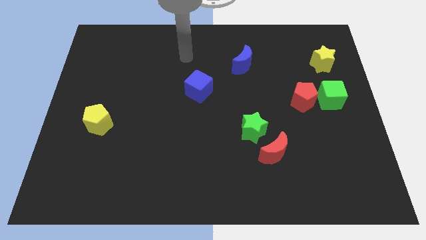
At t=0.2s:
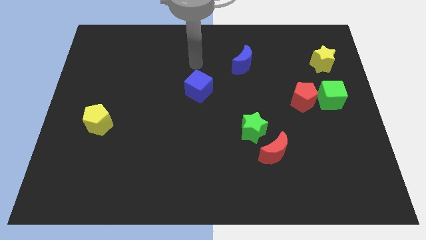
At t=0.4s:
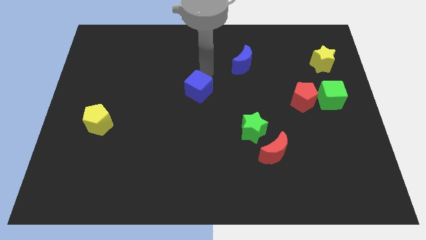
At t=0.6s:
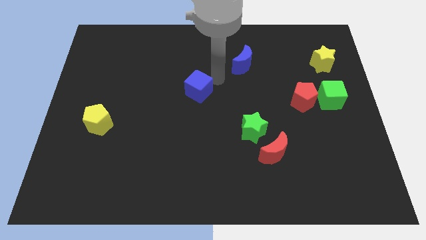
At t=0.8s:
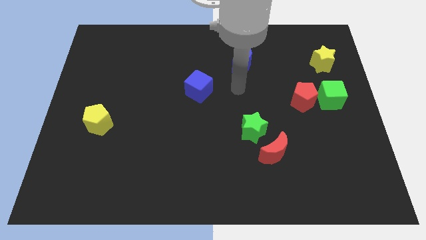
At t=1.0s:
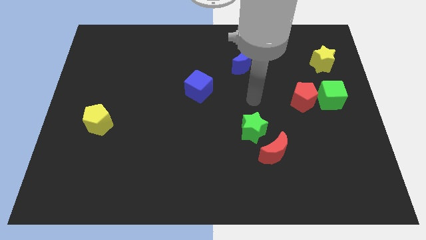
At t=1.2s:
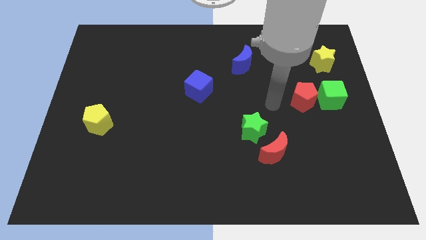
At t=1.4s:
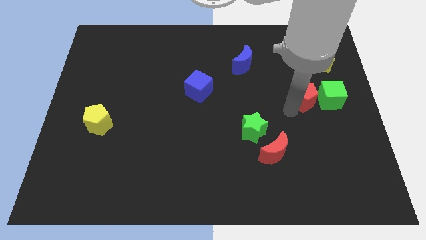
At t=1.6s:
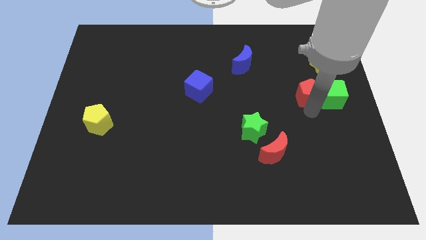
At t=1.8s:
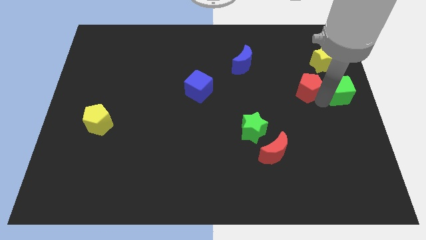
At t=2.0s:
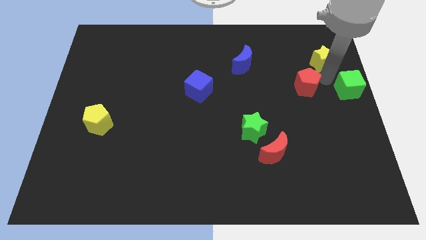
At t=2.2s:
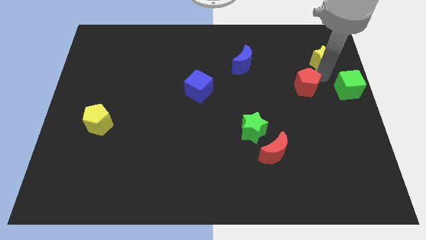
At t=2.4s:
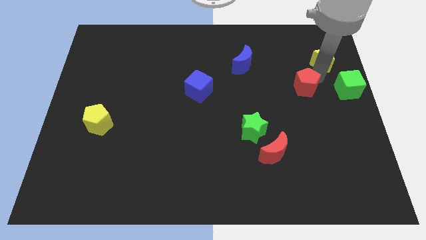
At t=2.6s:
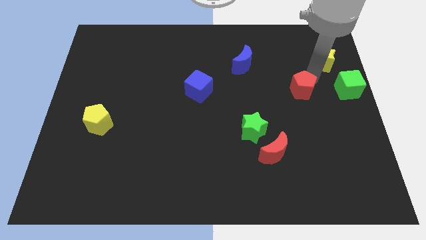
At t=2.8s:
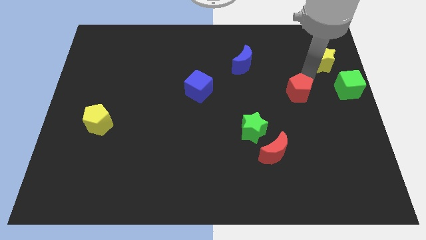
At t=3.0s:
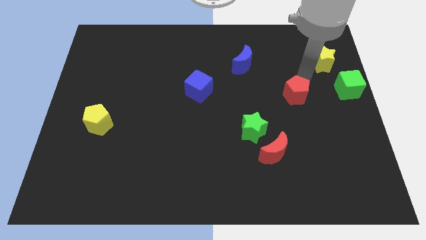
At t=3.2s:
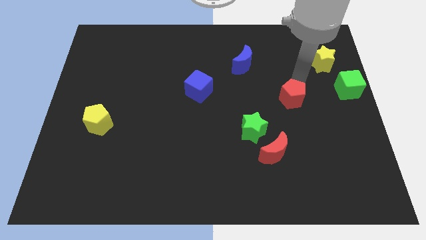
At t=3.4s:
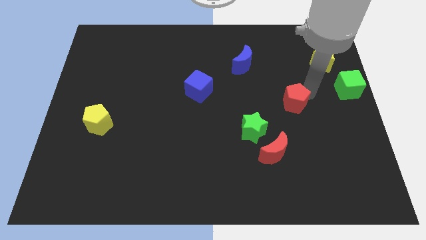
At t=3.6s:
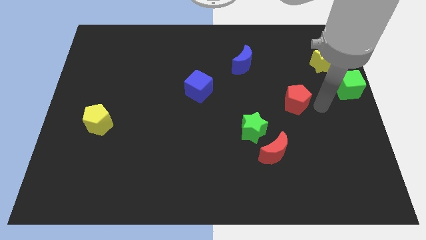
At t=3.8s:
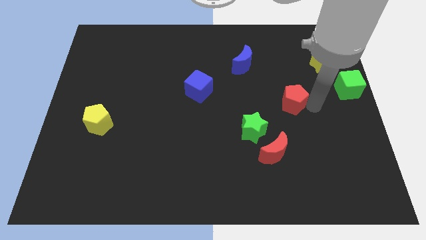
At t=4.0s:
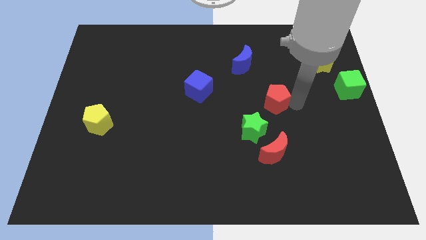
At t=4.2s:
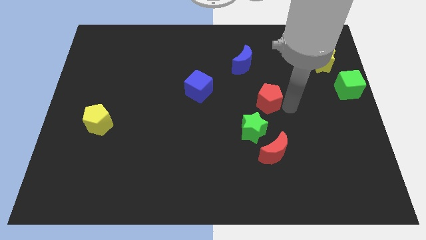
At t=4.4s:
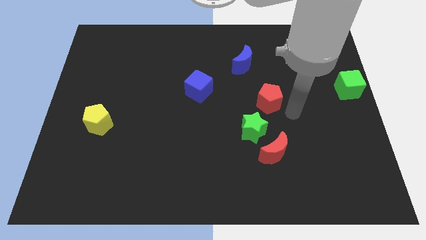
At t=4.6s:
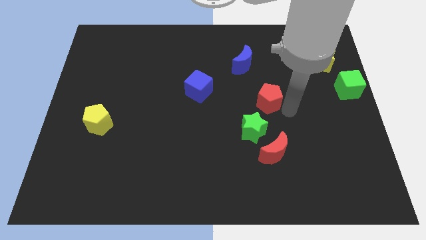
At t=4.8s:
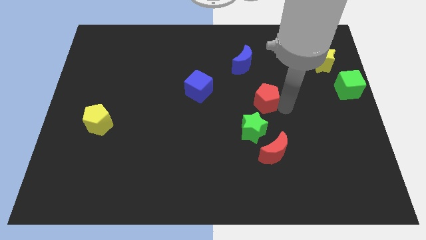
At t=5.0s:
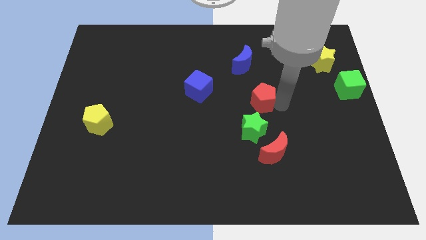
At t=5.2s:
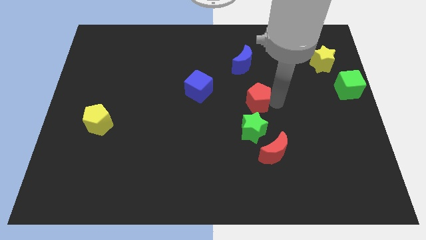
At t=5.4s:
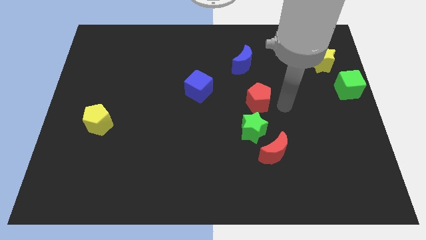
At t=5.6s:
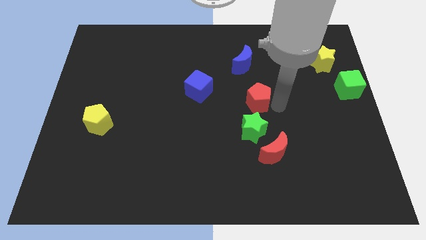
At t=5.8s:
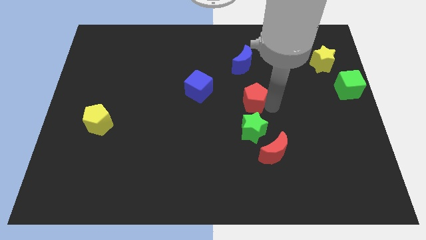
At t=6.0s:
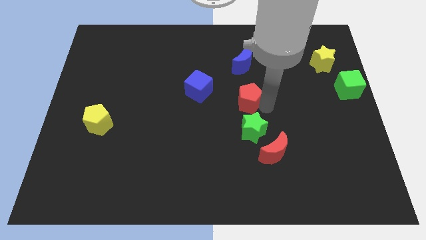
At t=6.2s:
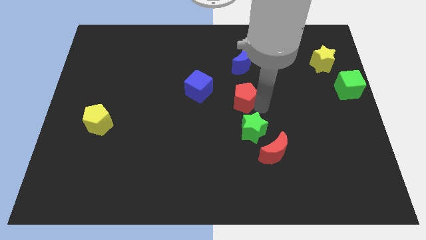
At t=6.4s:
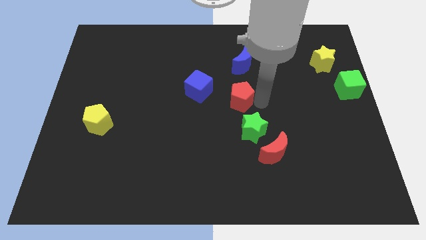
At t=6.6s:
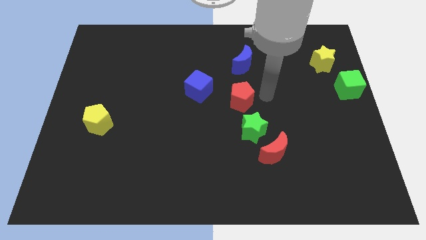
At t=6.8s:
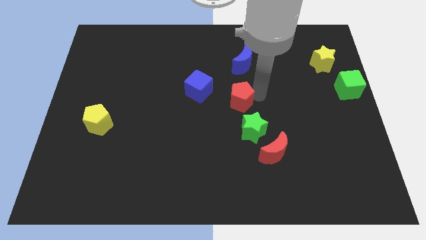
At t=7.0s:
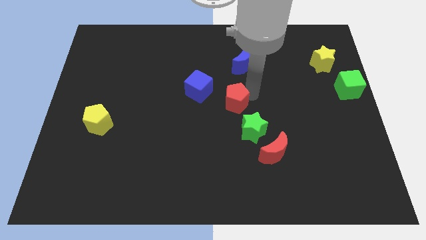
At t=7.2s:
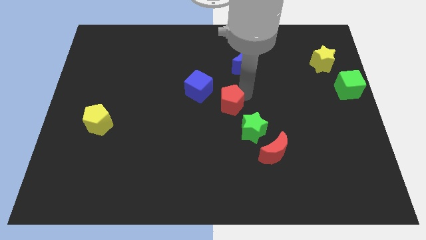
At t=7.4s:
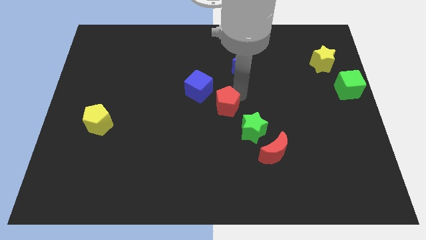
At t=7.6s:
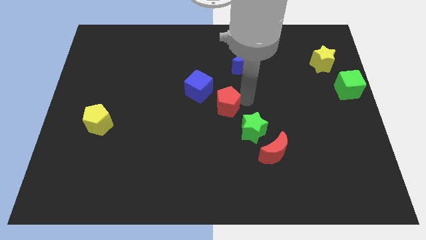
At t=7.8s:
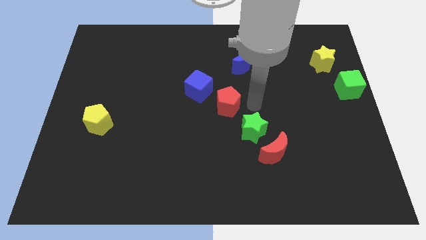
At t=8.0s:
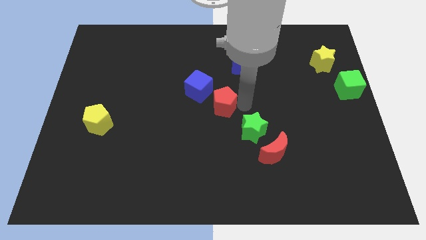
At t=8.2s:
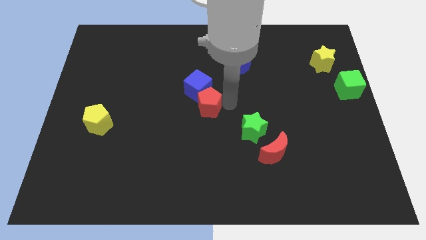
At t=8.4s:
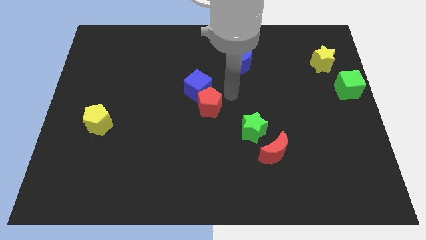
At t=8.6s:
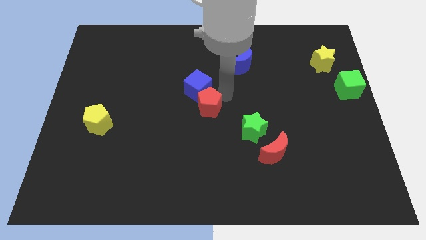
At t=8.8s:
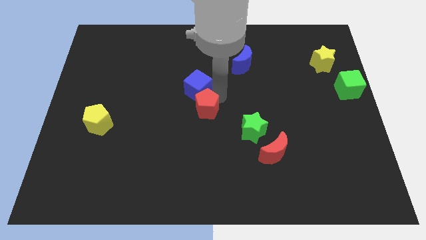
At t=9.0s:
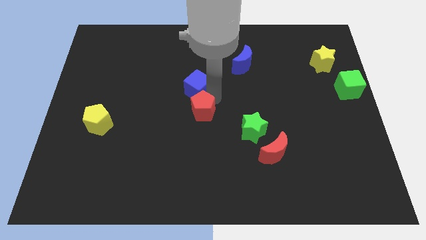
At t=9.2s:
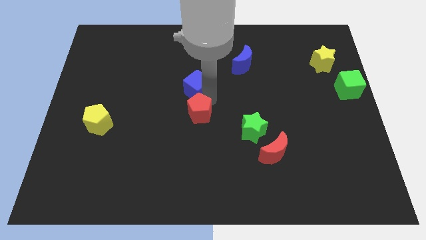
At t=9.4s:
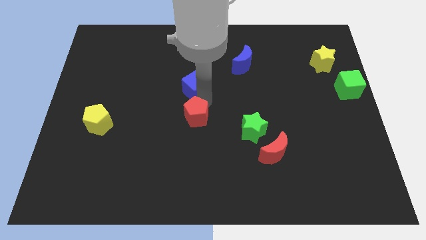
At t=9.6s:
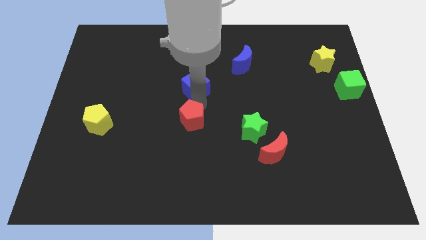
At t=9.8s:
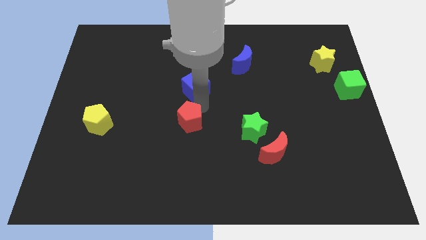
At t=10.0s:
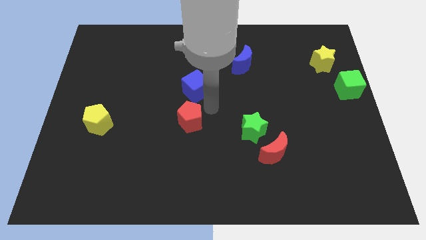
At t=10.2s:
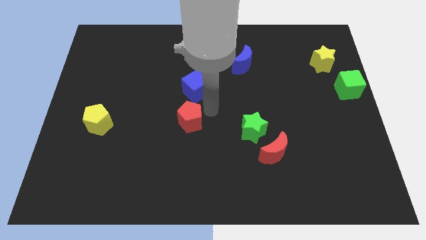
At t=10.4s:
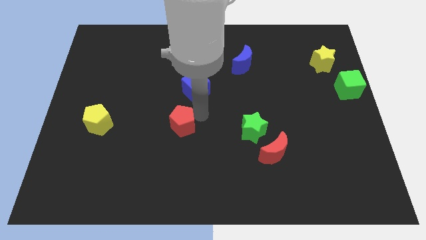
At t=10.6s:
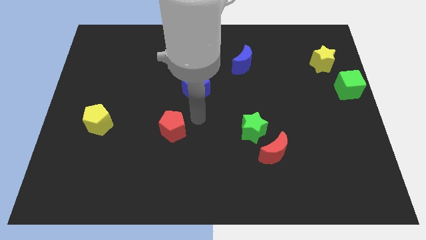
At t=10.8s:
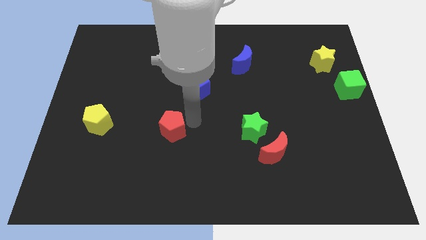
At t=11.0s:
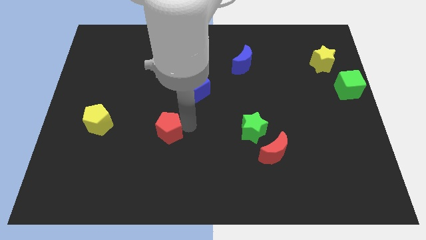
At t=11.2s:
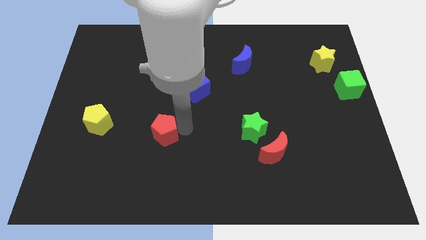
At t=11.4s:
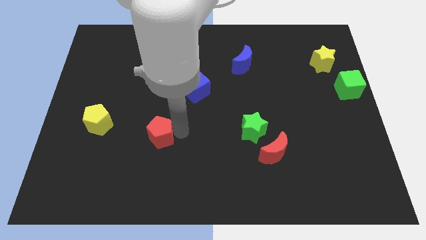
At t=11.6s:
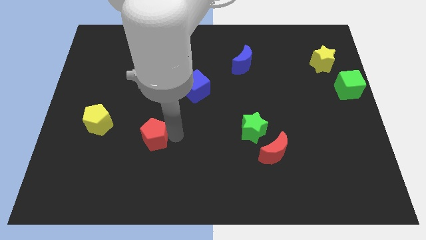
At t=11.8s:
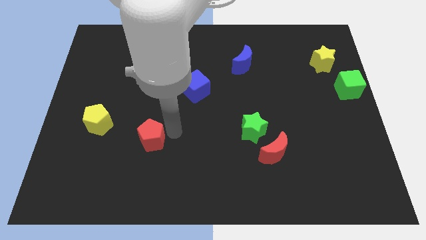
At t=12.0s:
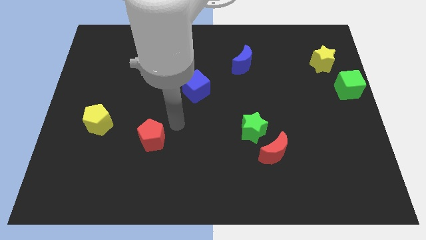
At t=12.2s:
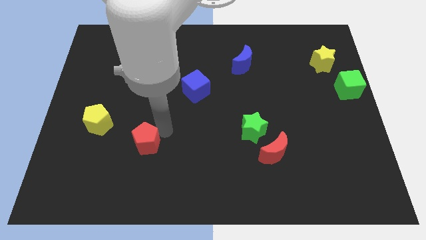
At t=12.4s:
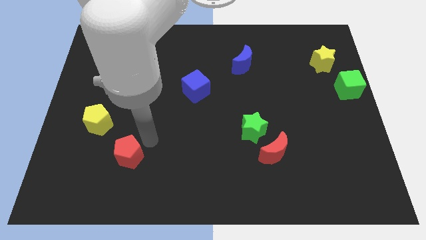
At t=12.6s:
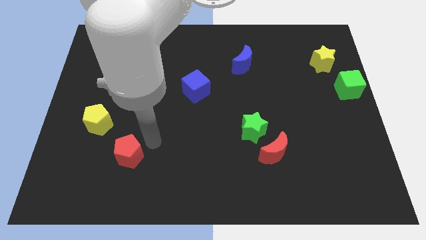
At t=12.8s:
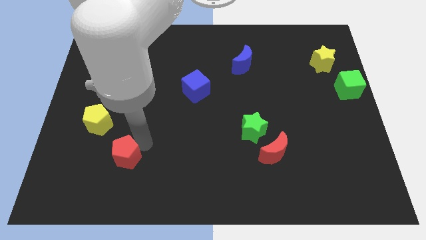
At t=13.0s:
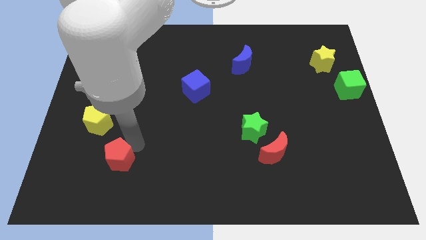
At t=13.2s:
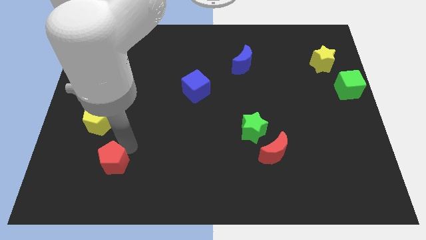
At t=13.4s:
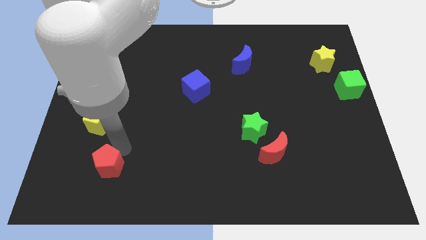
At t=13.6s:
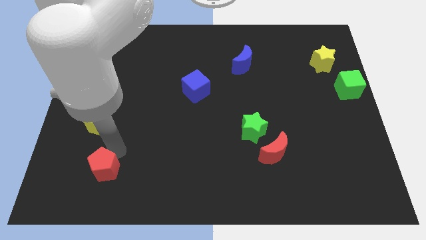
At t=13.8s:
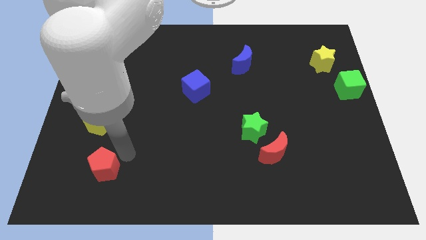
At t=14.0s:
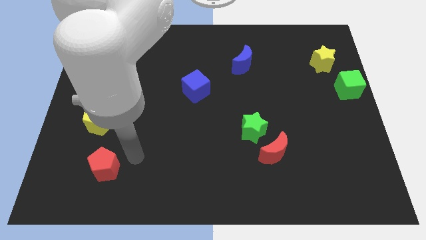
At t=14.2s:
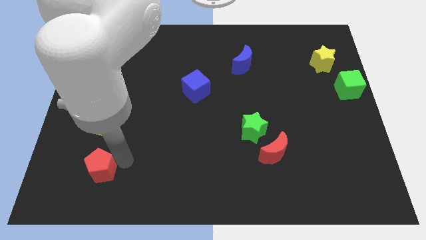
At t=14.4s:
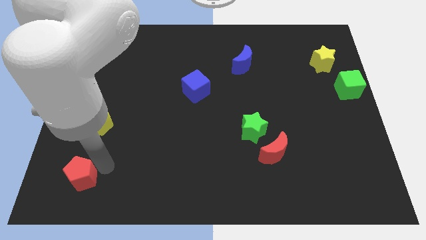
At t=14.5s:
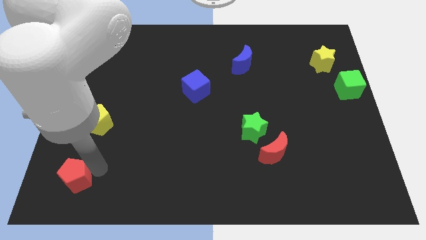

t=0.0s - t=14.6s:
slide the red pentagon to the lower left corner
